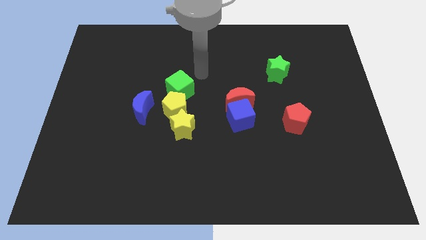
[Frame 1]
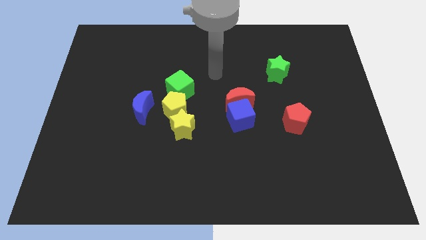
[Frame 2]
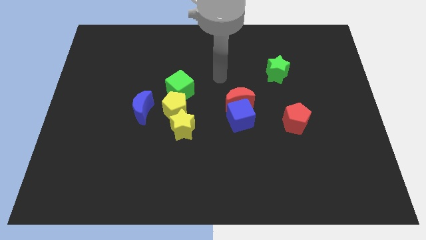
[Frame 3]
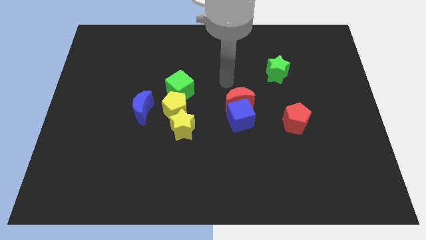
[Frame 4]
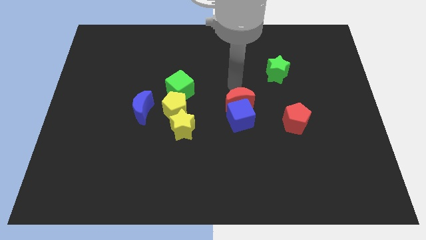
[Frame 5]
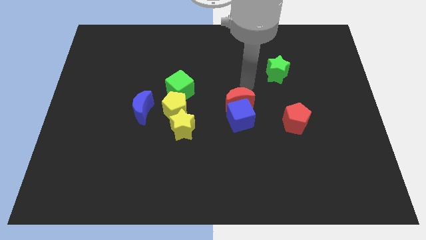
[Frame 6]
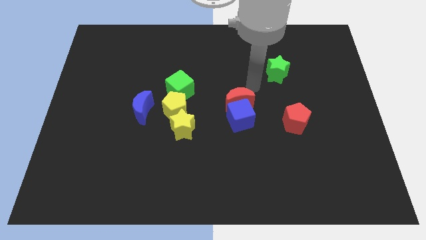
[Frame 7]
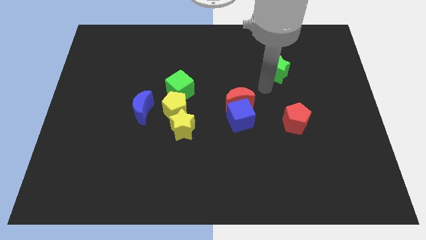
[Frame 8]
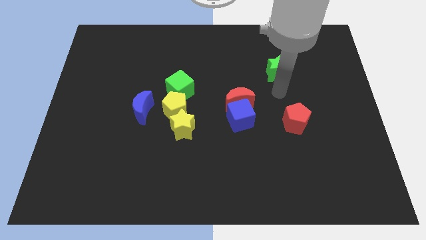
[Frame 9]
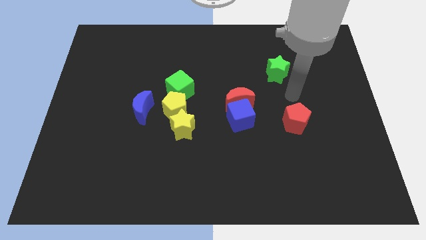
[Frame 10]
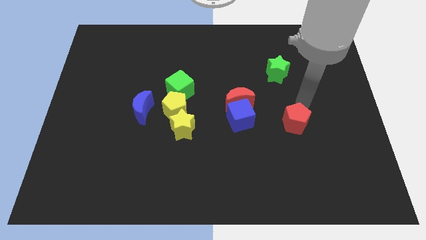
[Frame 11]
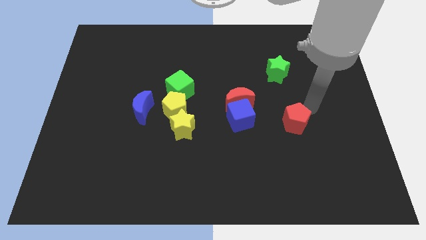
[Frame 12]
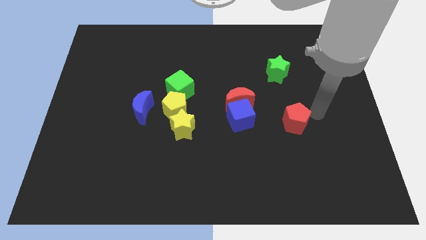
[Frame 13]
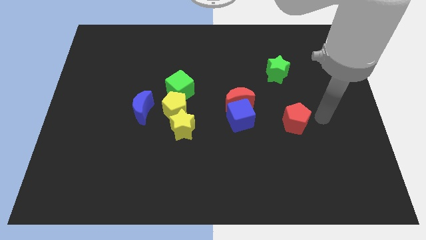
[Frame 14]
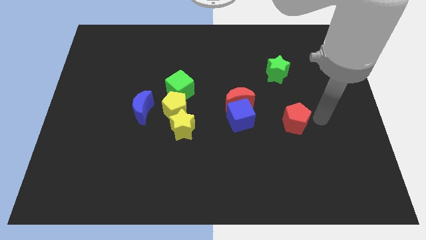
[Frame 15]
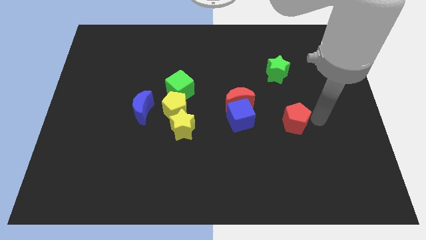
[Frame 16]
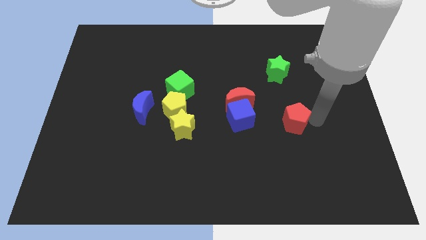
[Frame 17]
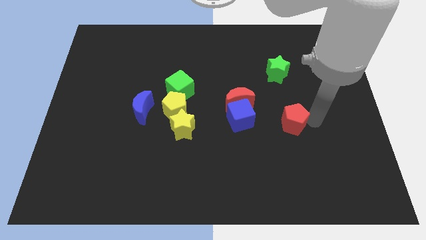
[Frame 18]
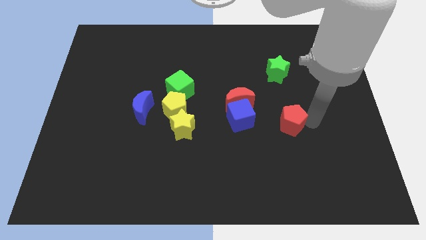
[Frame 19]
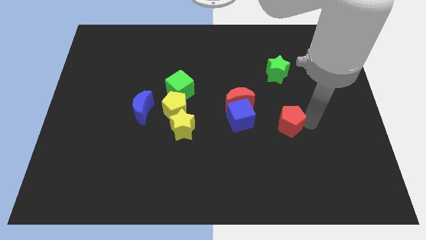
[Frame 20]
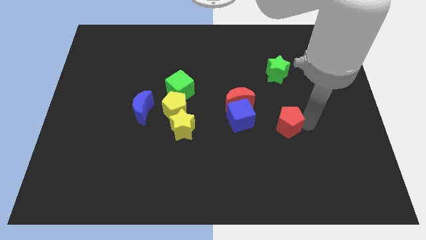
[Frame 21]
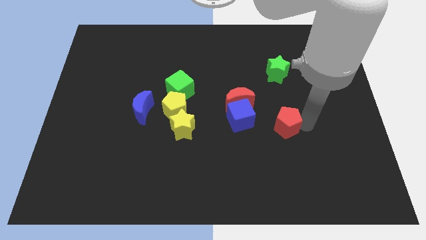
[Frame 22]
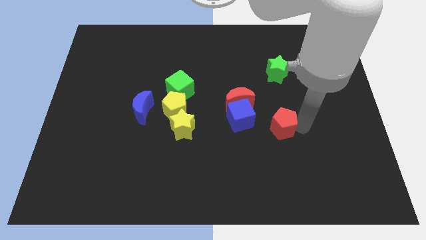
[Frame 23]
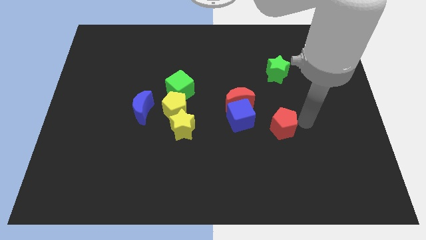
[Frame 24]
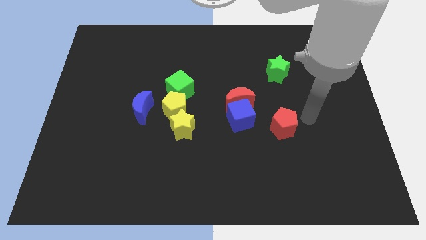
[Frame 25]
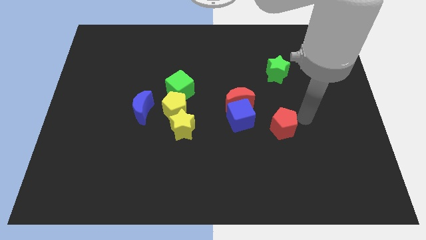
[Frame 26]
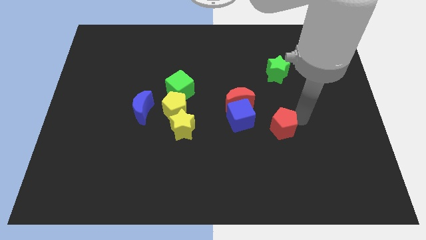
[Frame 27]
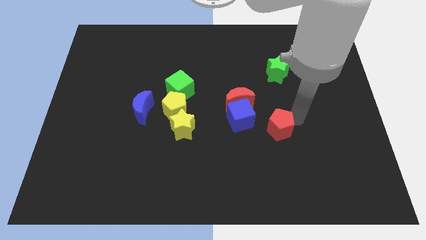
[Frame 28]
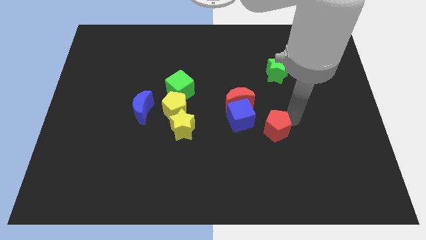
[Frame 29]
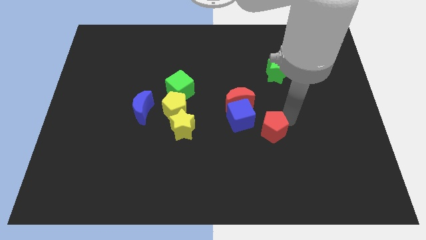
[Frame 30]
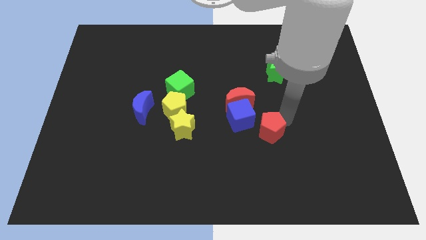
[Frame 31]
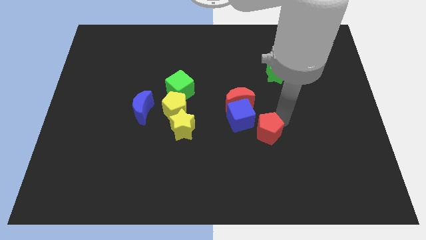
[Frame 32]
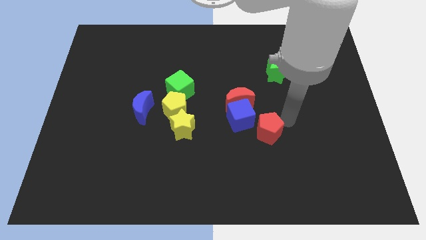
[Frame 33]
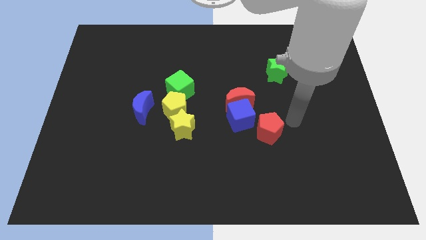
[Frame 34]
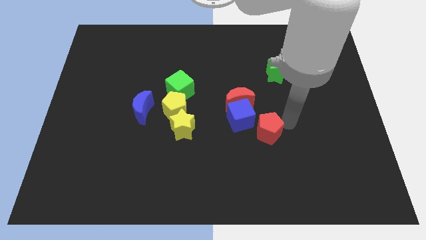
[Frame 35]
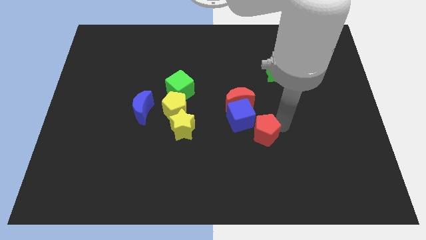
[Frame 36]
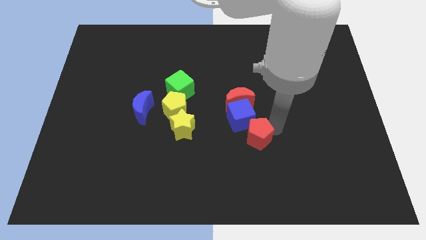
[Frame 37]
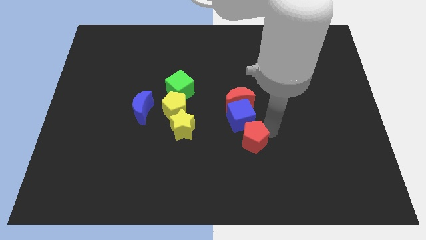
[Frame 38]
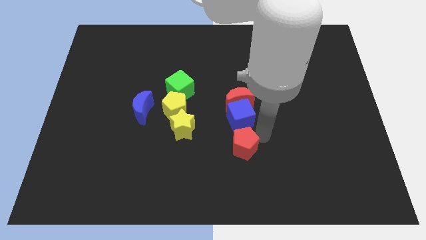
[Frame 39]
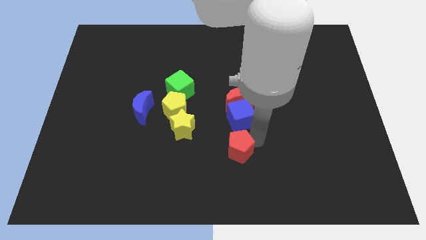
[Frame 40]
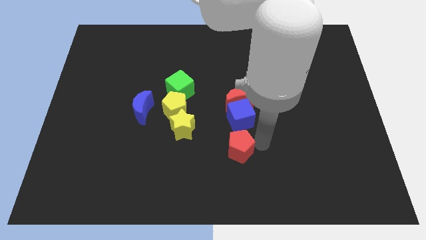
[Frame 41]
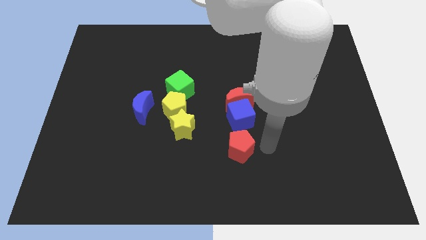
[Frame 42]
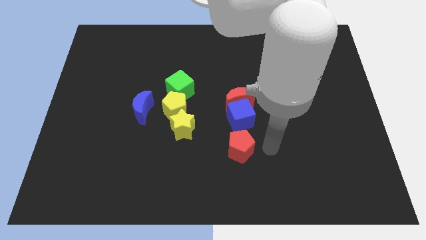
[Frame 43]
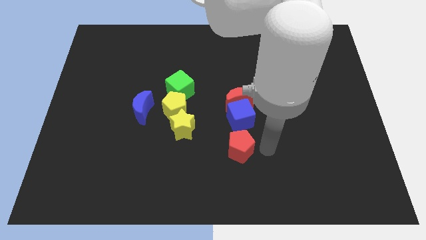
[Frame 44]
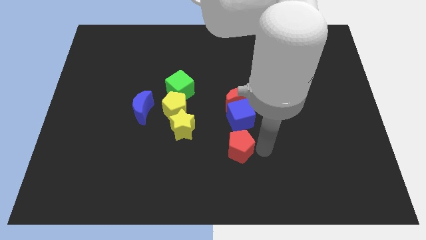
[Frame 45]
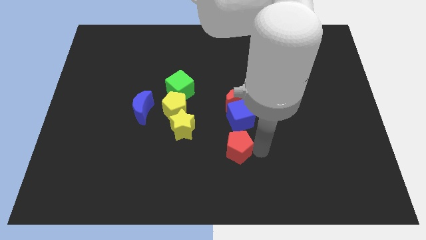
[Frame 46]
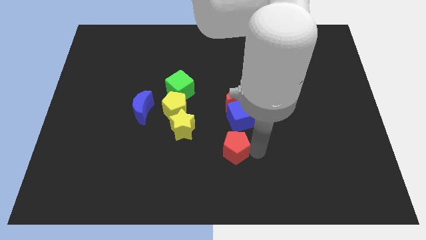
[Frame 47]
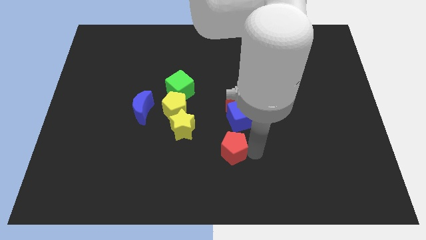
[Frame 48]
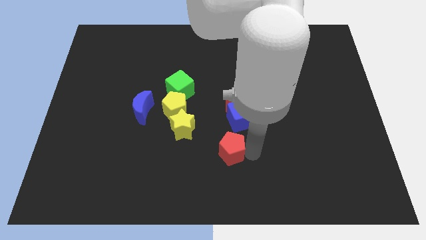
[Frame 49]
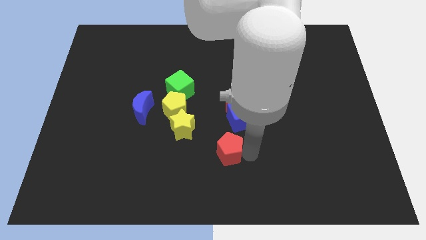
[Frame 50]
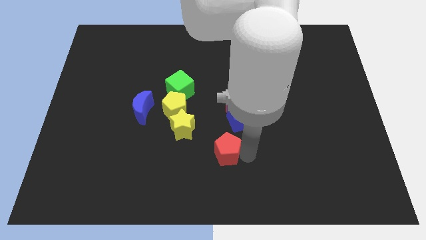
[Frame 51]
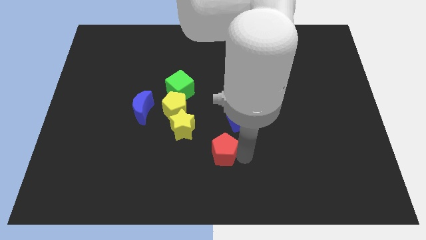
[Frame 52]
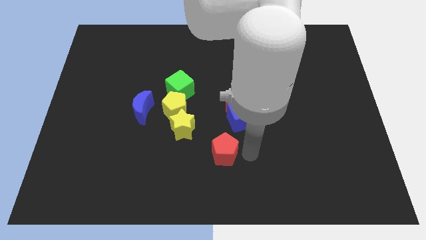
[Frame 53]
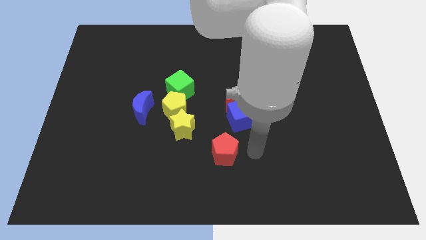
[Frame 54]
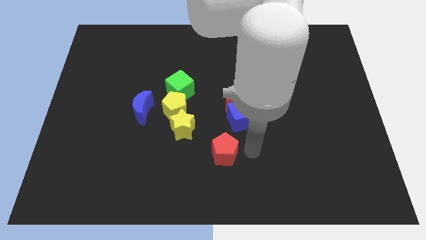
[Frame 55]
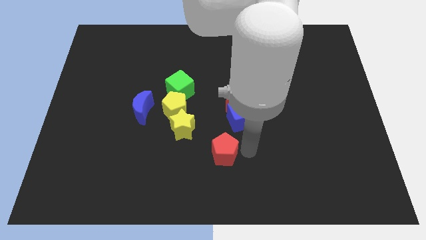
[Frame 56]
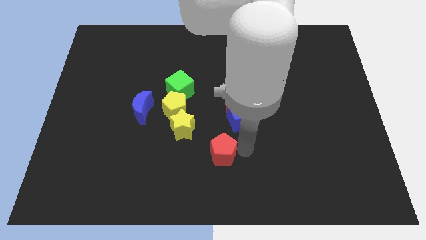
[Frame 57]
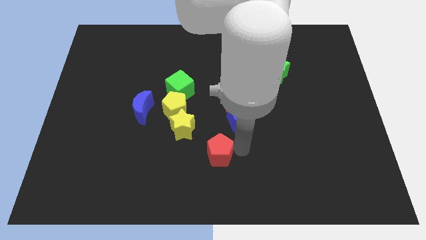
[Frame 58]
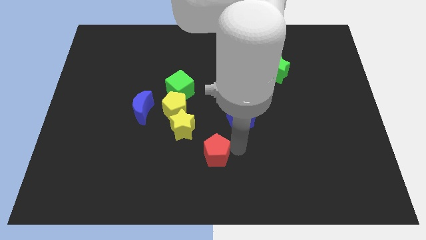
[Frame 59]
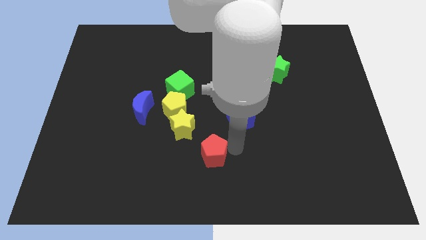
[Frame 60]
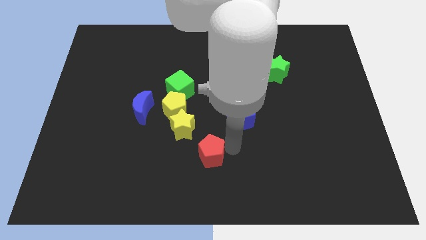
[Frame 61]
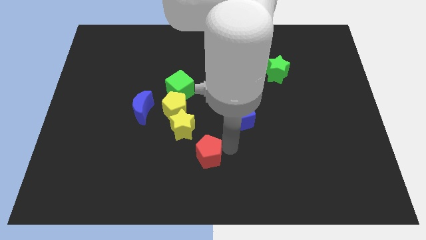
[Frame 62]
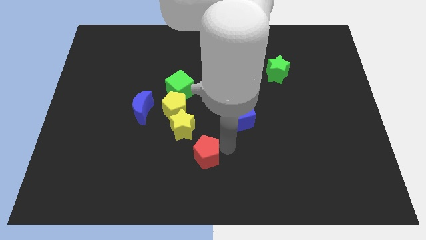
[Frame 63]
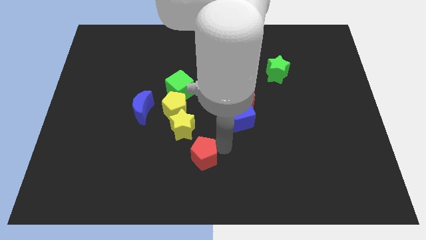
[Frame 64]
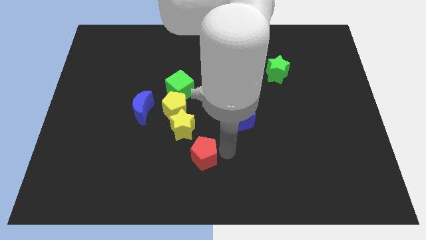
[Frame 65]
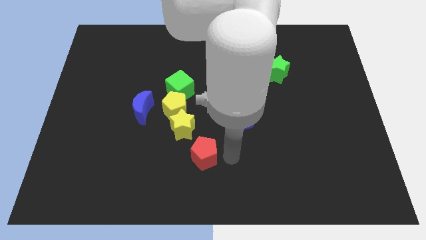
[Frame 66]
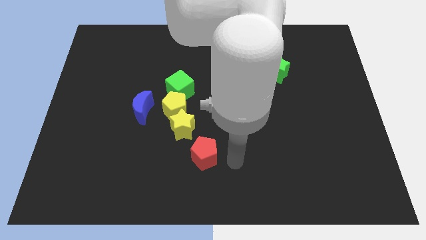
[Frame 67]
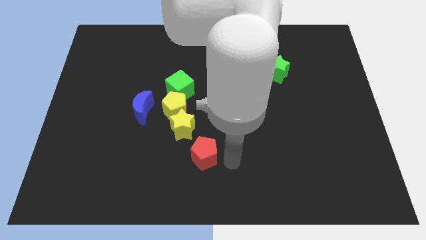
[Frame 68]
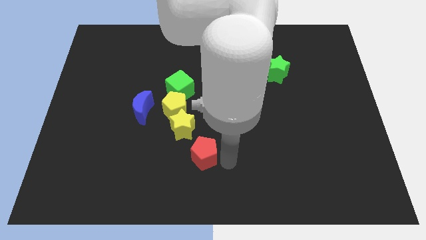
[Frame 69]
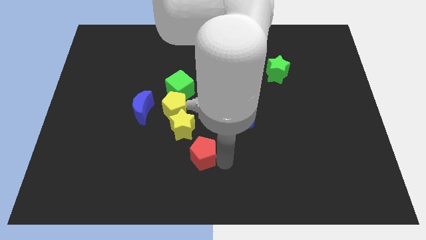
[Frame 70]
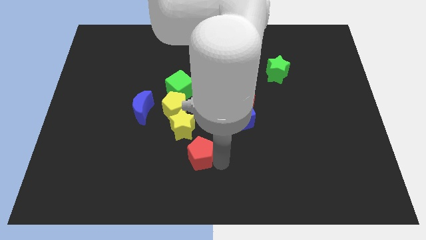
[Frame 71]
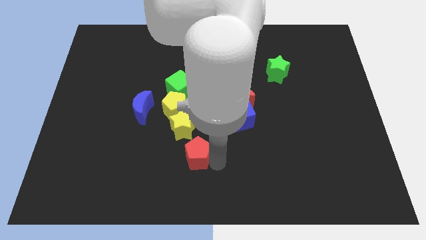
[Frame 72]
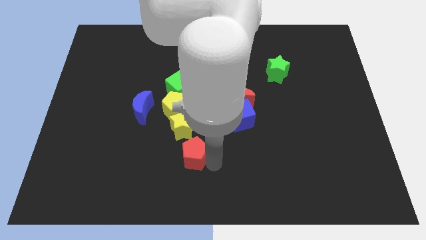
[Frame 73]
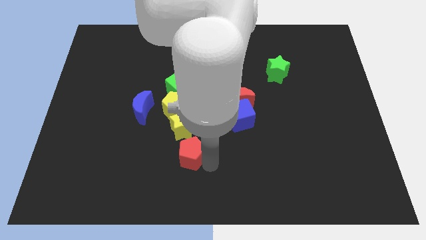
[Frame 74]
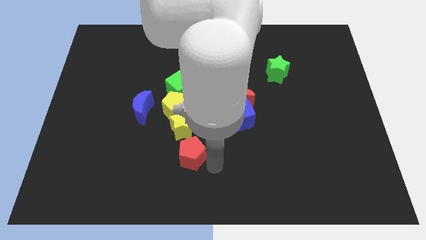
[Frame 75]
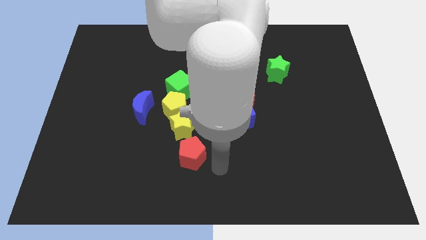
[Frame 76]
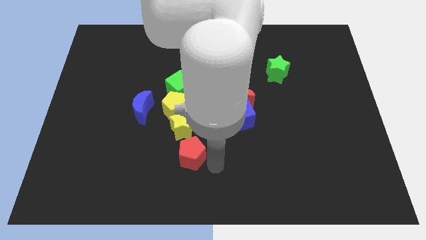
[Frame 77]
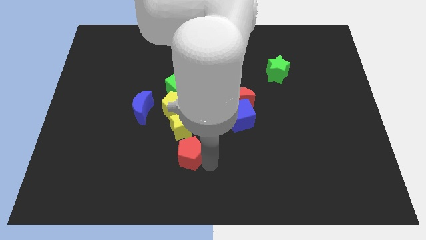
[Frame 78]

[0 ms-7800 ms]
push the red pentagon to the left
